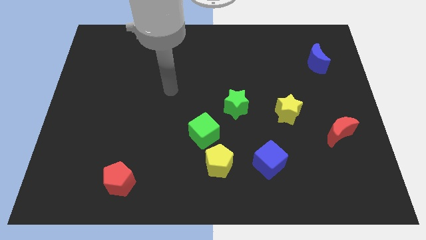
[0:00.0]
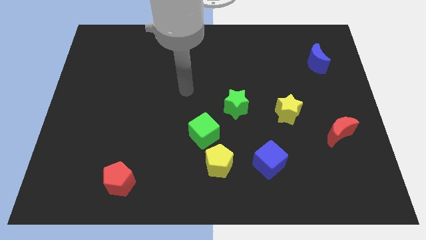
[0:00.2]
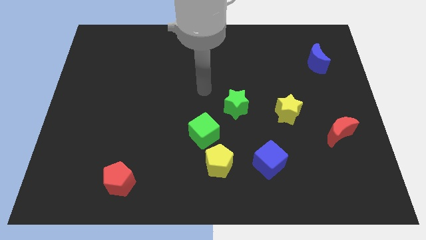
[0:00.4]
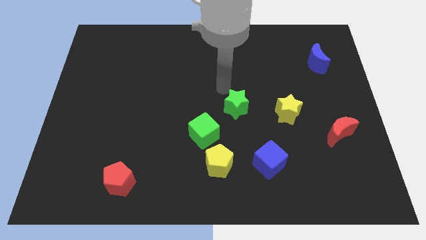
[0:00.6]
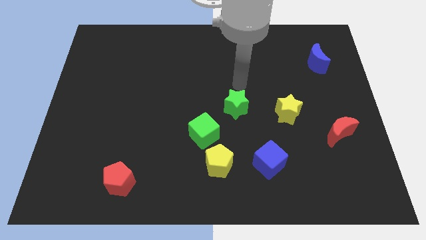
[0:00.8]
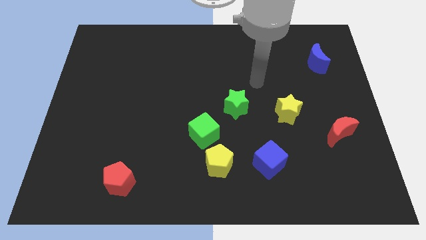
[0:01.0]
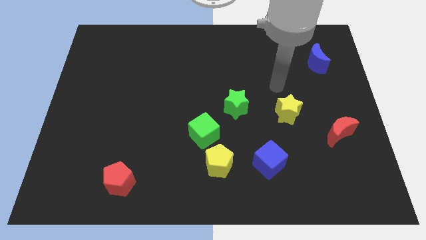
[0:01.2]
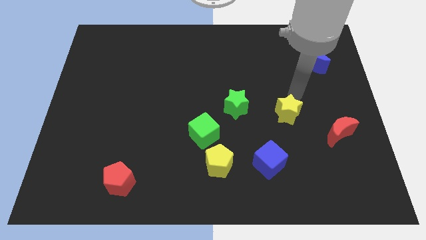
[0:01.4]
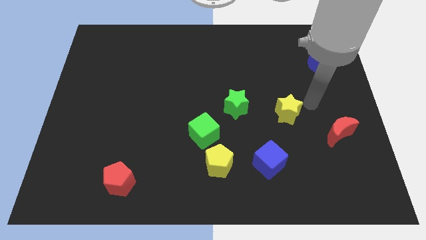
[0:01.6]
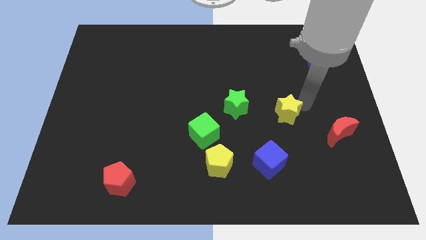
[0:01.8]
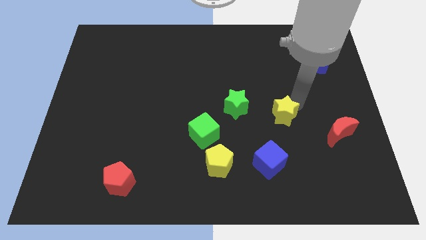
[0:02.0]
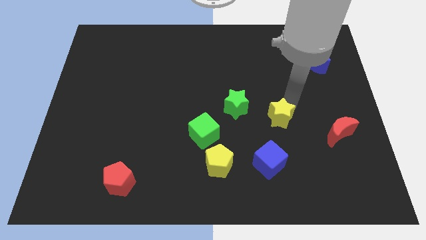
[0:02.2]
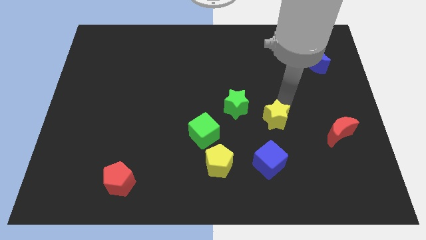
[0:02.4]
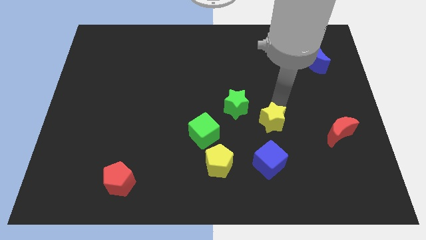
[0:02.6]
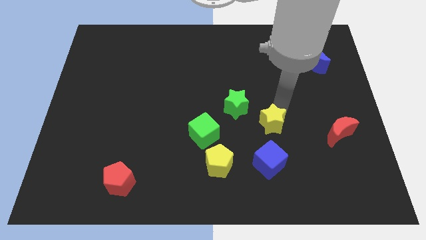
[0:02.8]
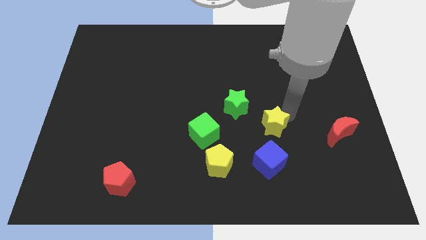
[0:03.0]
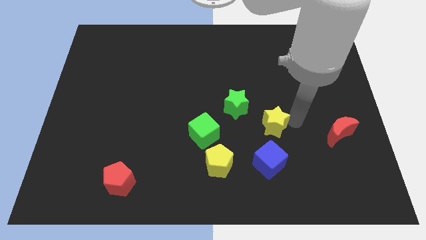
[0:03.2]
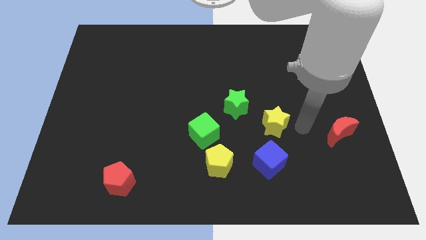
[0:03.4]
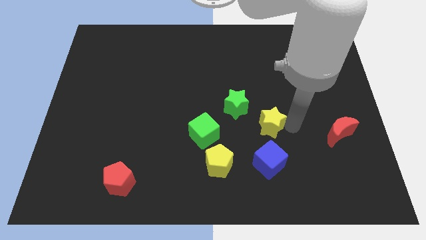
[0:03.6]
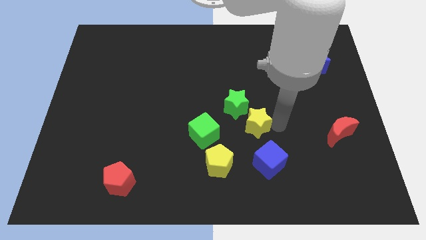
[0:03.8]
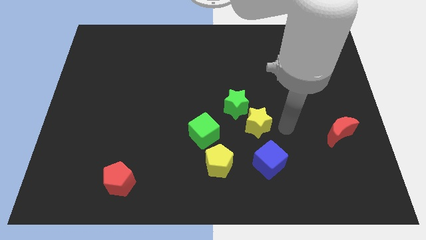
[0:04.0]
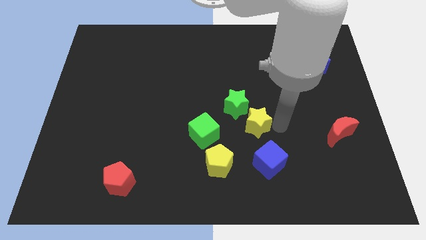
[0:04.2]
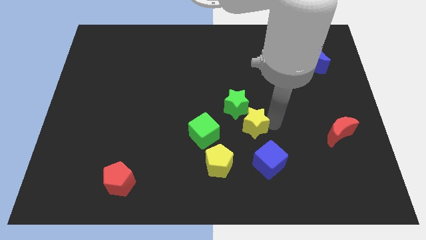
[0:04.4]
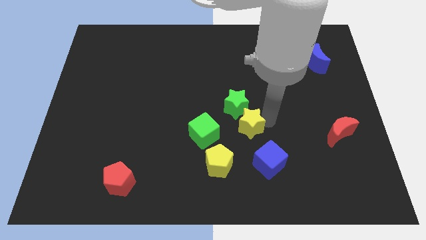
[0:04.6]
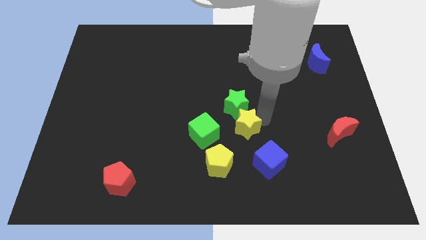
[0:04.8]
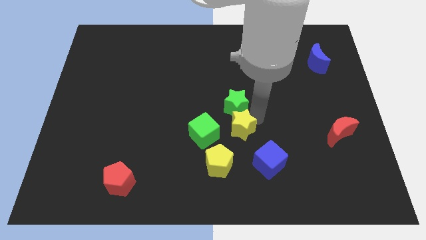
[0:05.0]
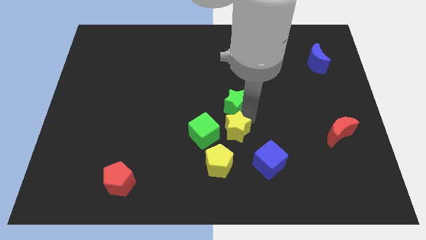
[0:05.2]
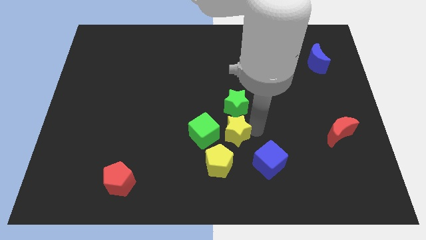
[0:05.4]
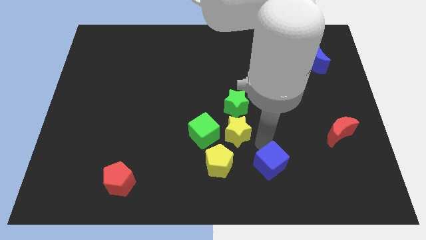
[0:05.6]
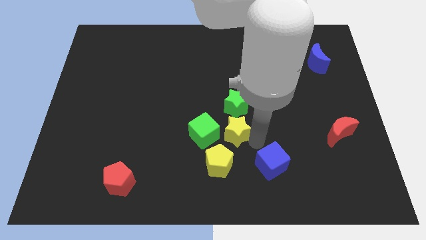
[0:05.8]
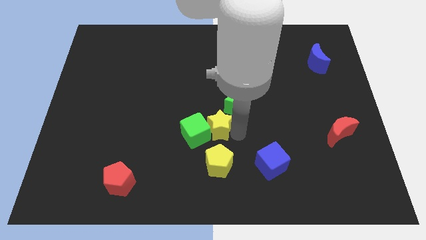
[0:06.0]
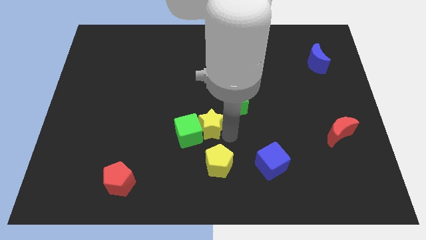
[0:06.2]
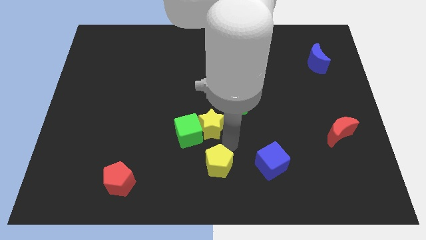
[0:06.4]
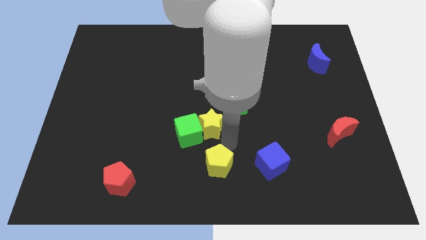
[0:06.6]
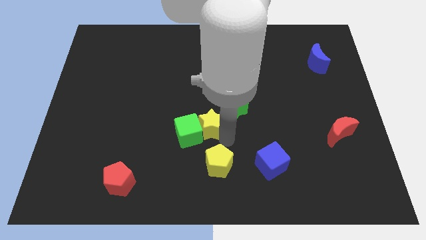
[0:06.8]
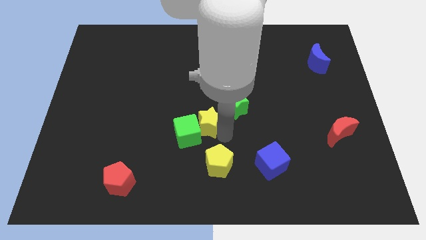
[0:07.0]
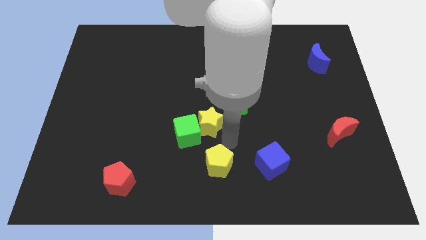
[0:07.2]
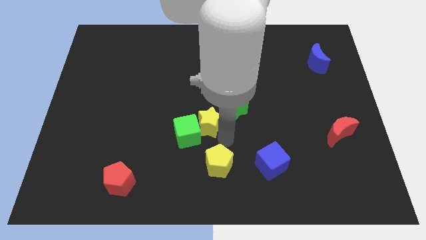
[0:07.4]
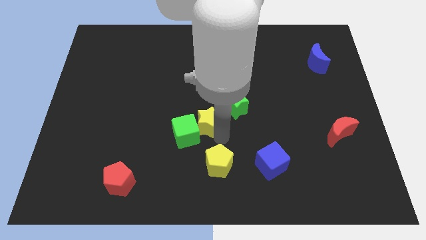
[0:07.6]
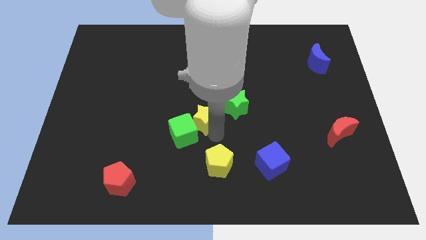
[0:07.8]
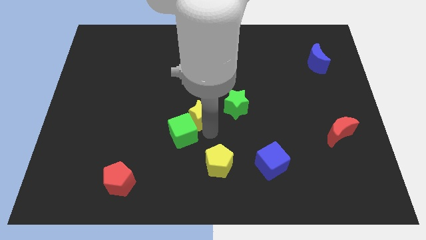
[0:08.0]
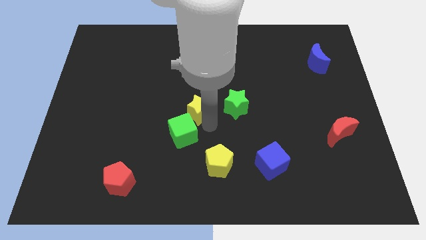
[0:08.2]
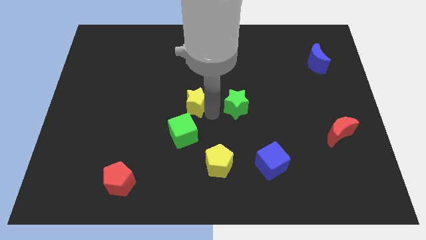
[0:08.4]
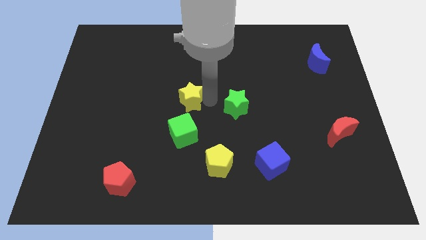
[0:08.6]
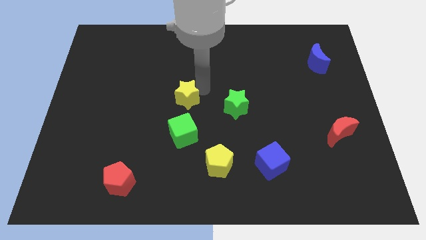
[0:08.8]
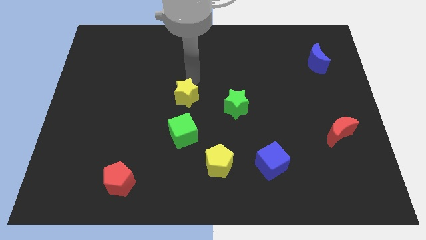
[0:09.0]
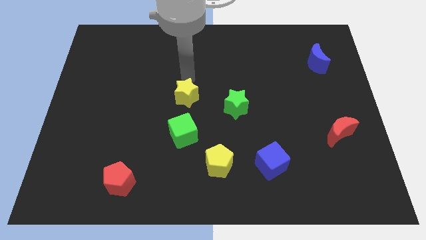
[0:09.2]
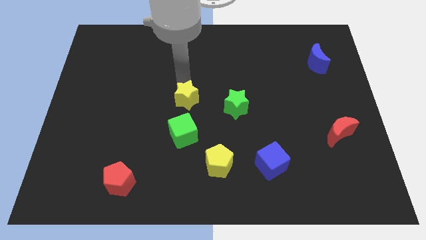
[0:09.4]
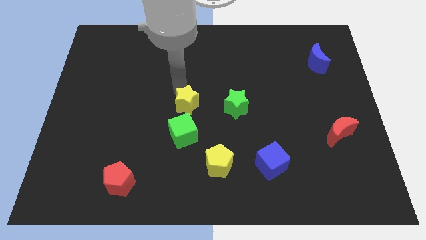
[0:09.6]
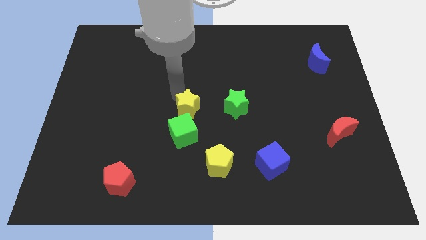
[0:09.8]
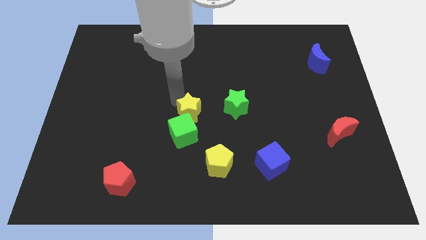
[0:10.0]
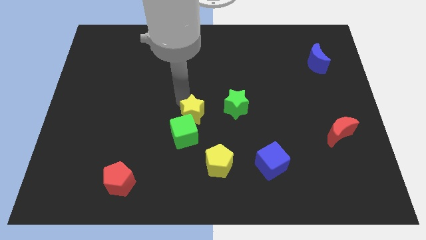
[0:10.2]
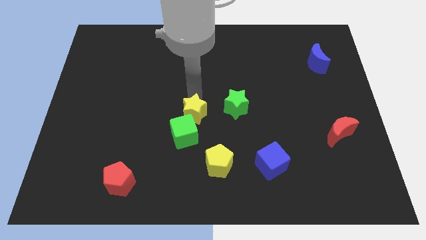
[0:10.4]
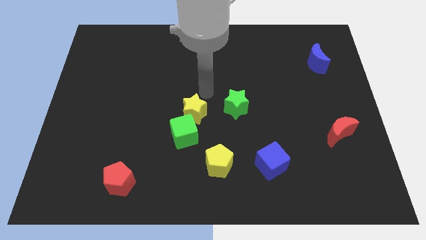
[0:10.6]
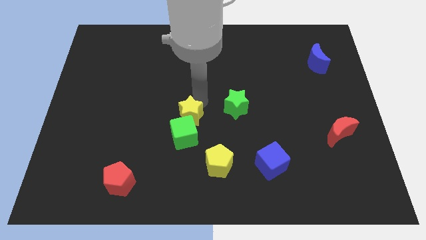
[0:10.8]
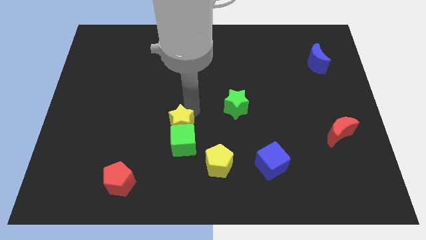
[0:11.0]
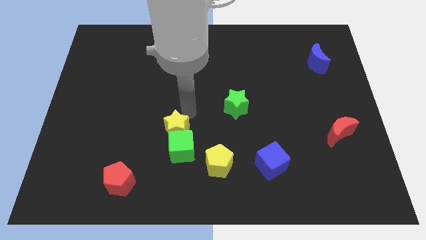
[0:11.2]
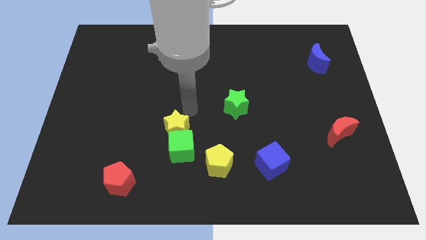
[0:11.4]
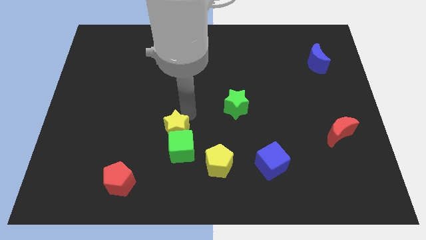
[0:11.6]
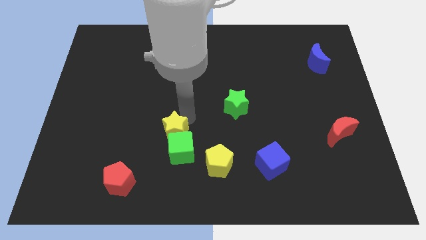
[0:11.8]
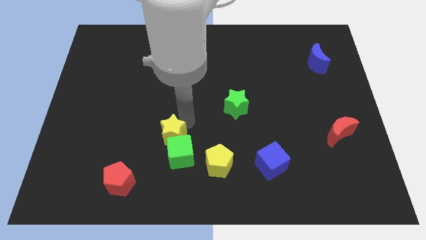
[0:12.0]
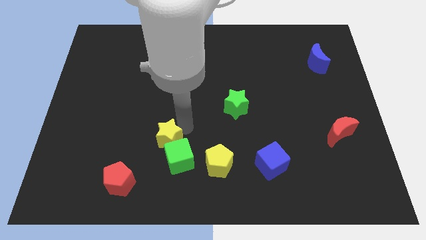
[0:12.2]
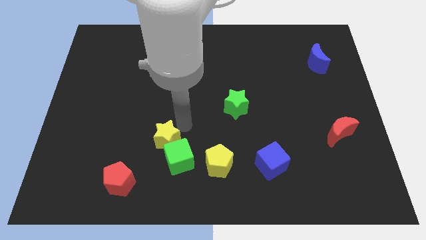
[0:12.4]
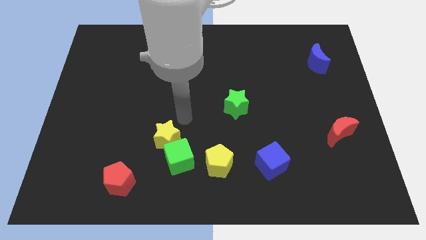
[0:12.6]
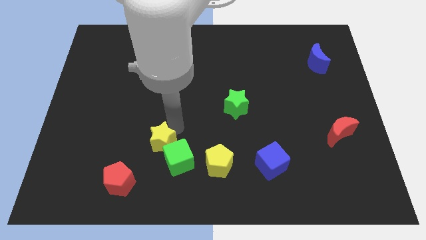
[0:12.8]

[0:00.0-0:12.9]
put the yellow star diagonally up and to the right of the red pentagon

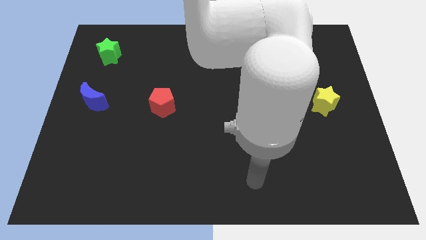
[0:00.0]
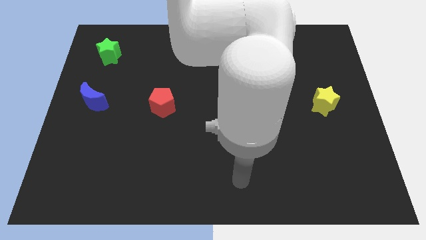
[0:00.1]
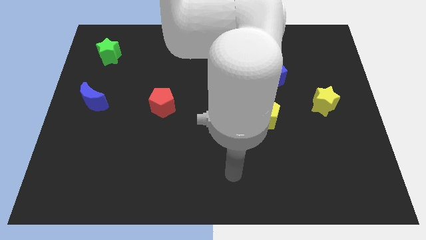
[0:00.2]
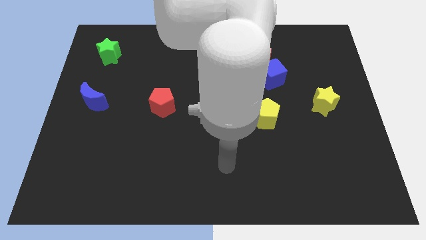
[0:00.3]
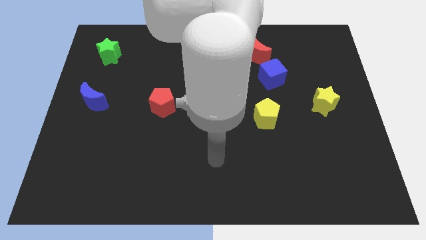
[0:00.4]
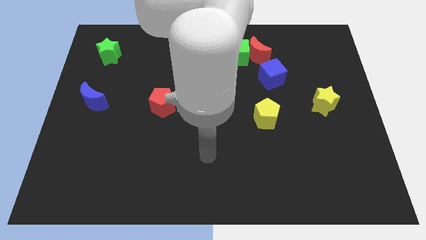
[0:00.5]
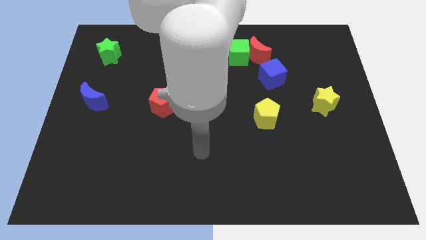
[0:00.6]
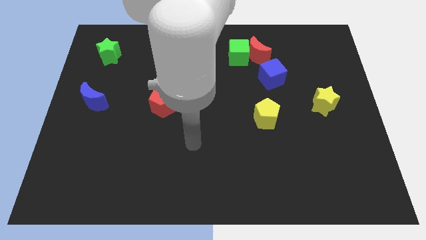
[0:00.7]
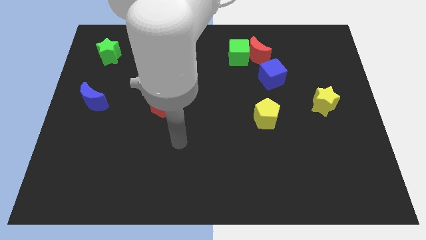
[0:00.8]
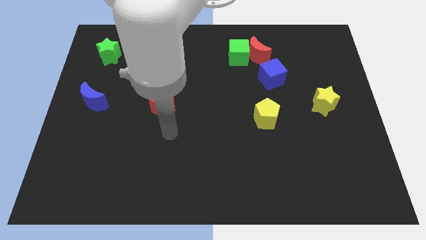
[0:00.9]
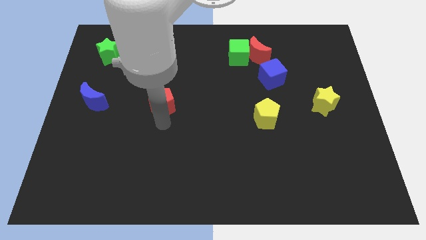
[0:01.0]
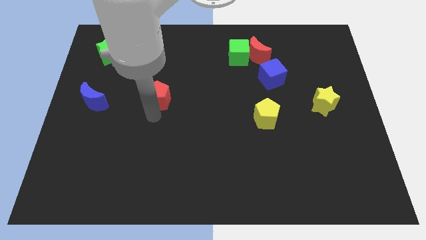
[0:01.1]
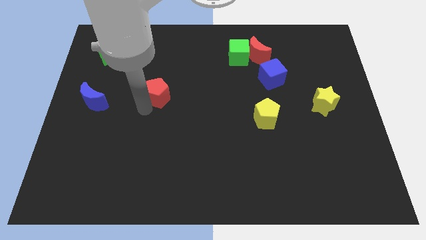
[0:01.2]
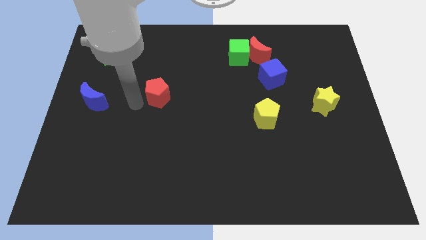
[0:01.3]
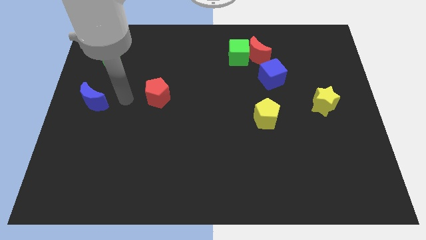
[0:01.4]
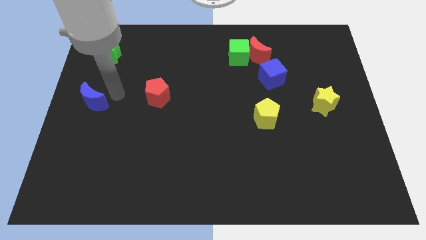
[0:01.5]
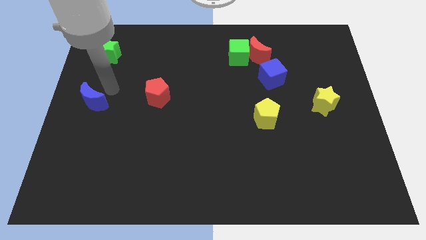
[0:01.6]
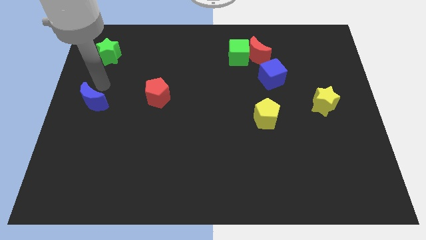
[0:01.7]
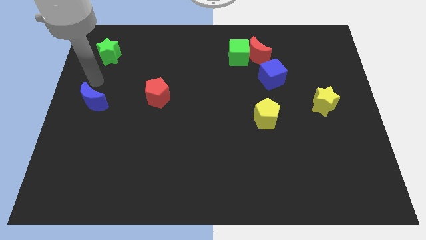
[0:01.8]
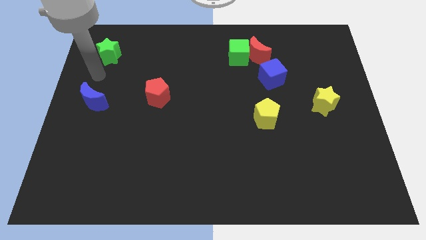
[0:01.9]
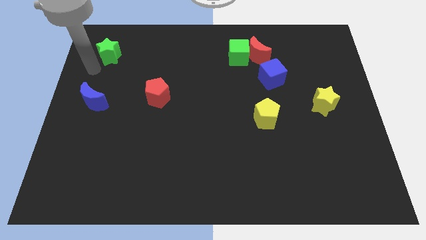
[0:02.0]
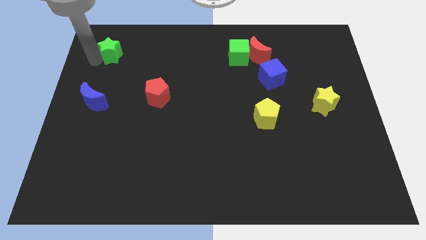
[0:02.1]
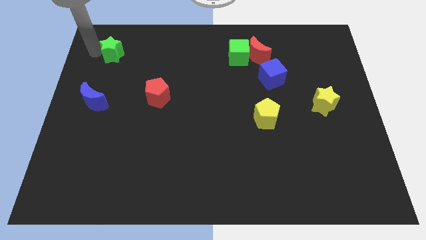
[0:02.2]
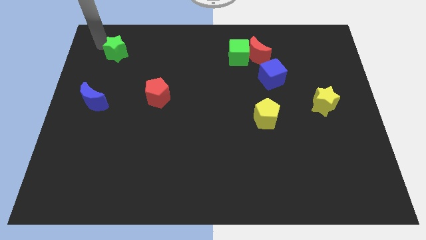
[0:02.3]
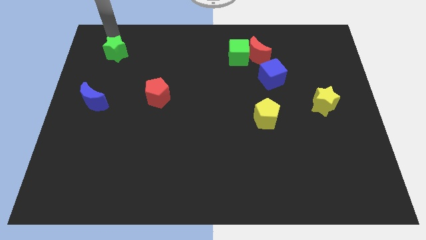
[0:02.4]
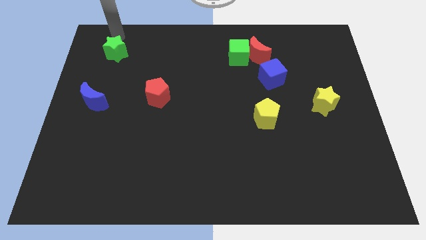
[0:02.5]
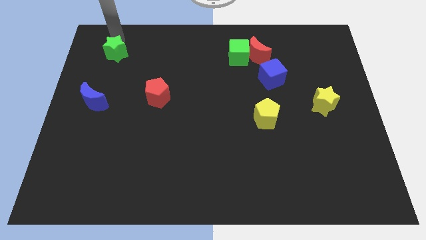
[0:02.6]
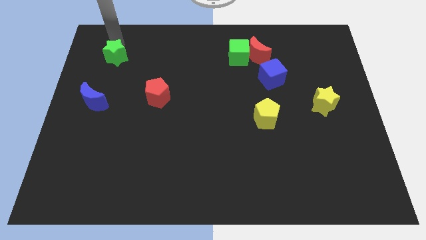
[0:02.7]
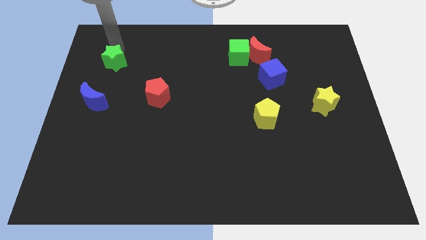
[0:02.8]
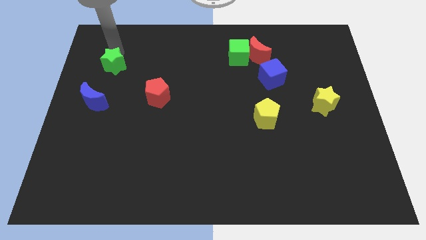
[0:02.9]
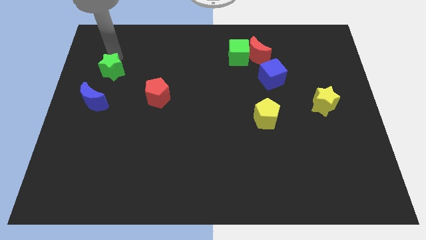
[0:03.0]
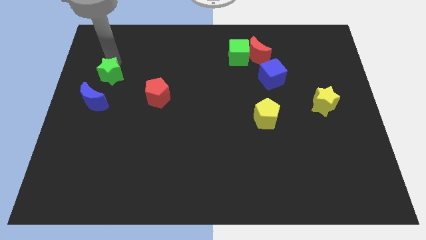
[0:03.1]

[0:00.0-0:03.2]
push the green star to the top right side of the blue moon
